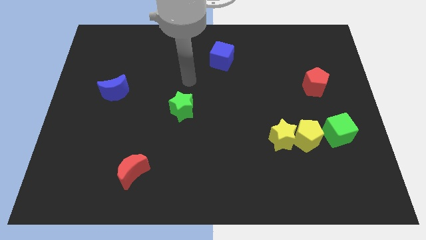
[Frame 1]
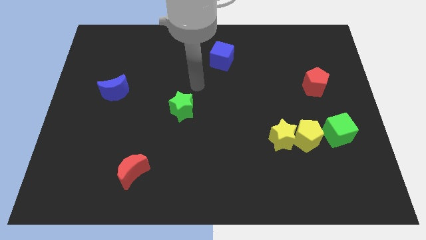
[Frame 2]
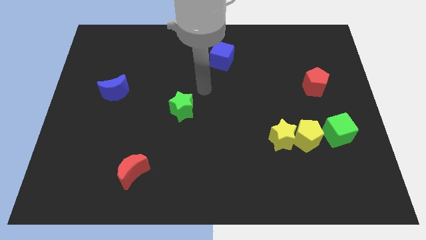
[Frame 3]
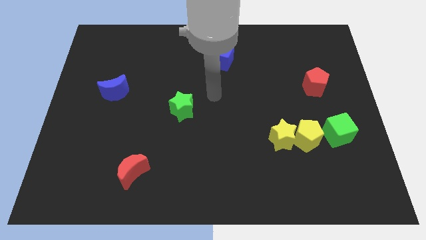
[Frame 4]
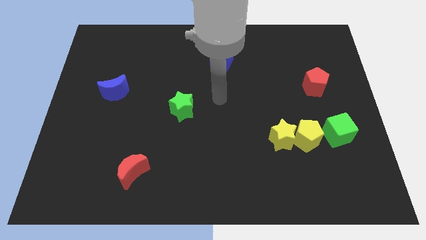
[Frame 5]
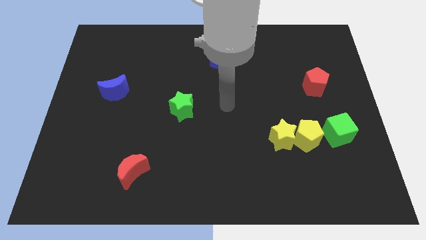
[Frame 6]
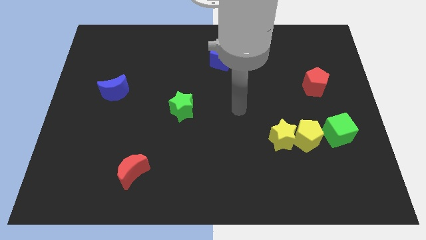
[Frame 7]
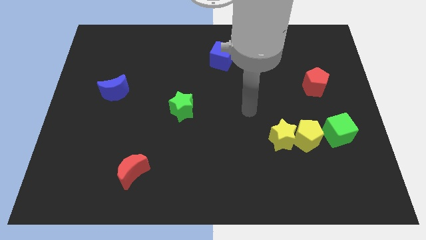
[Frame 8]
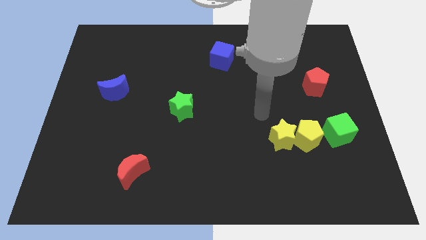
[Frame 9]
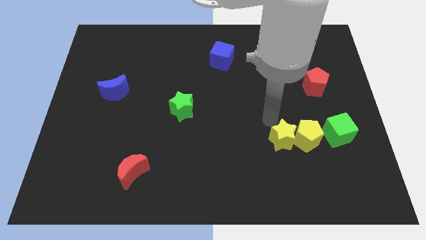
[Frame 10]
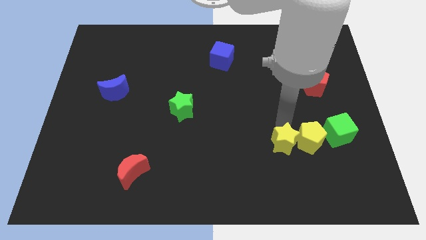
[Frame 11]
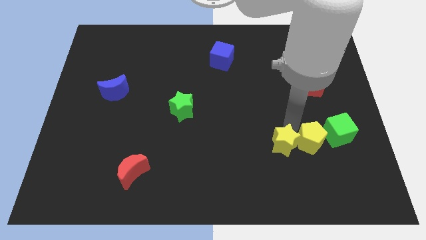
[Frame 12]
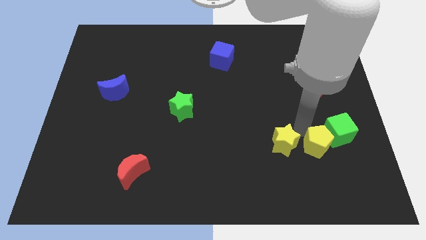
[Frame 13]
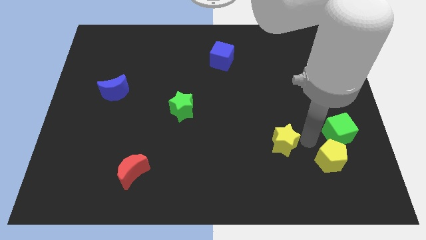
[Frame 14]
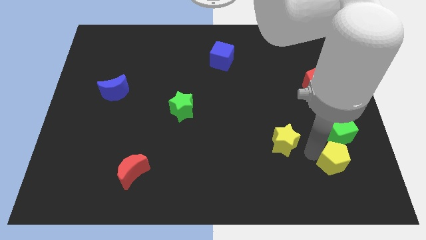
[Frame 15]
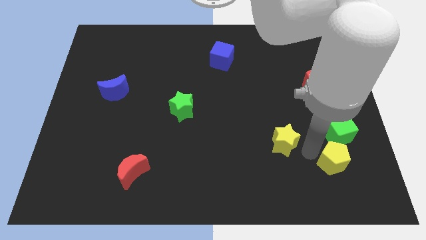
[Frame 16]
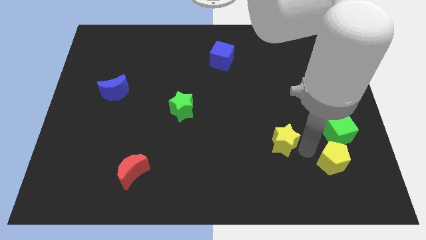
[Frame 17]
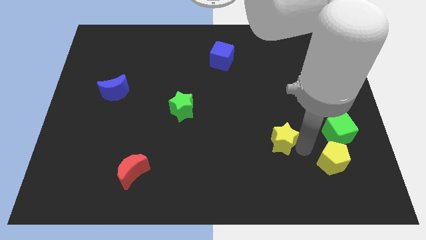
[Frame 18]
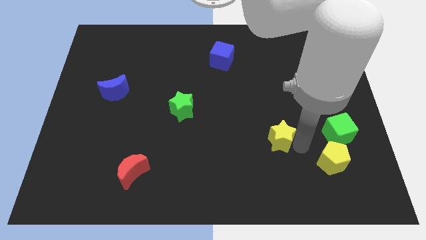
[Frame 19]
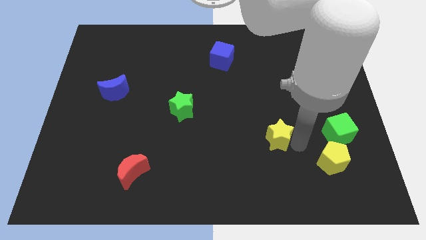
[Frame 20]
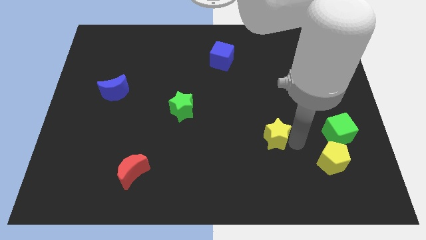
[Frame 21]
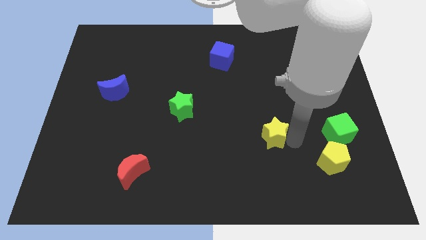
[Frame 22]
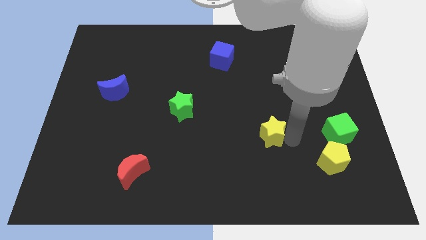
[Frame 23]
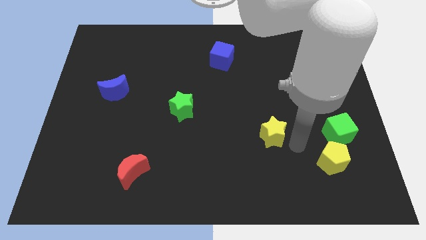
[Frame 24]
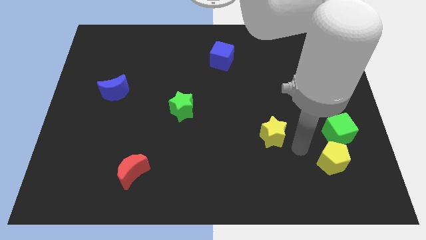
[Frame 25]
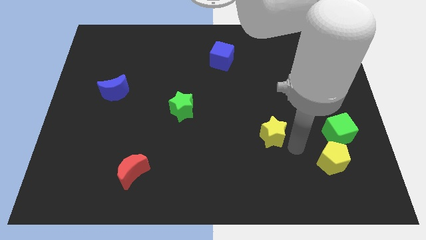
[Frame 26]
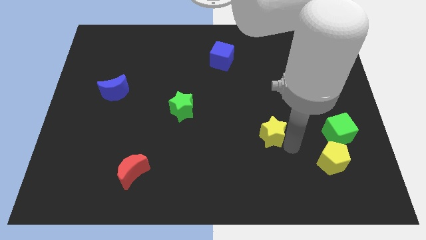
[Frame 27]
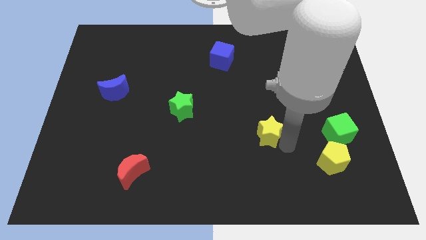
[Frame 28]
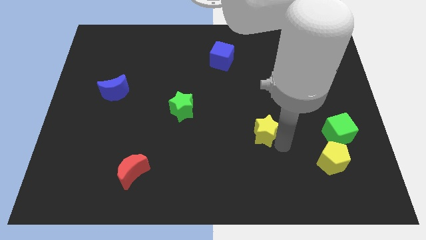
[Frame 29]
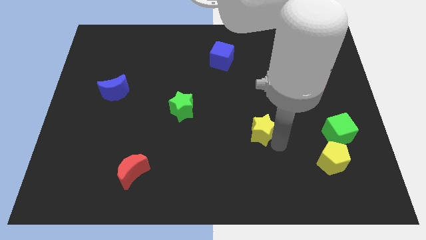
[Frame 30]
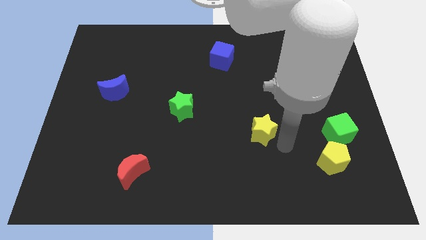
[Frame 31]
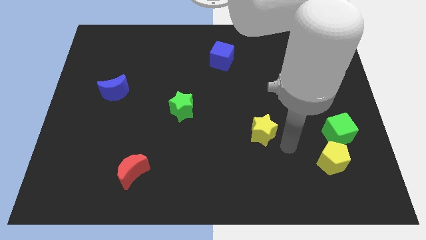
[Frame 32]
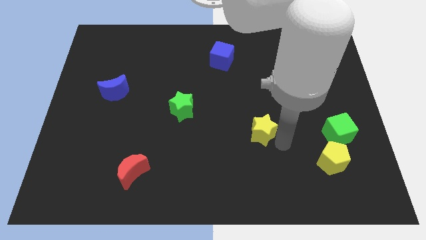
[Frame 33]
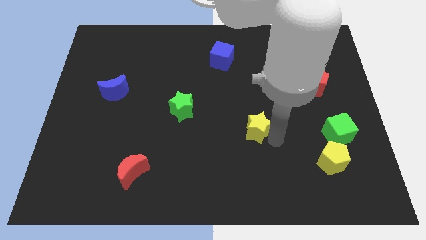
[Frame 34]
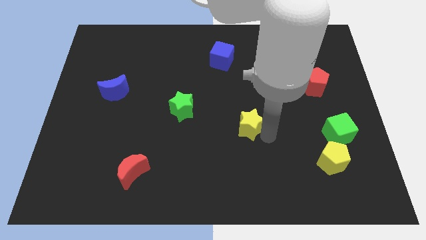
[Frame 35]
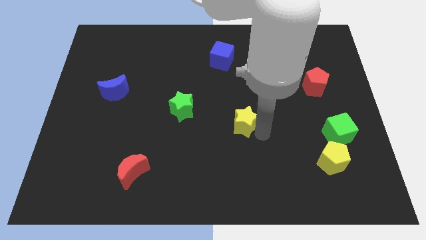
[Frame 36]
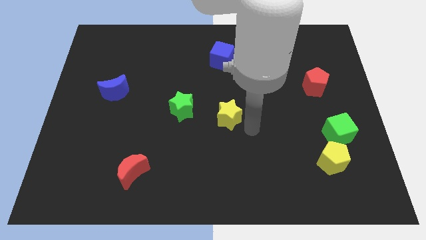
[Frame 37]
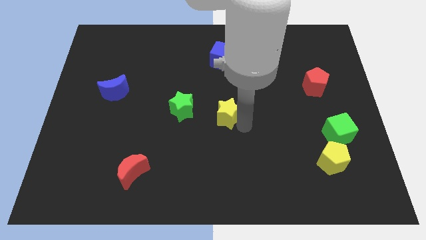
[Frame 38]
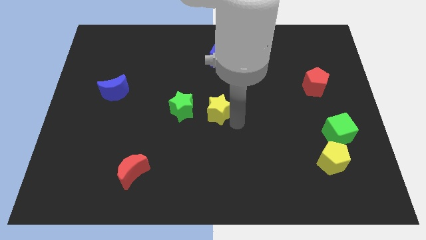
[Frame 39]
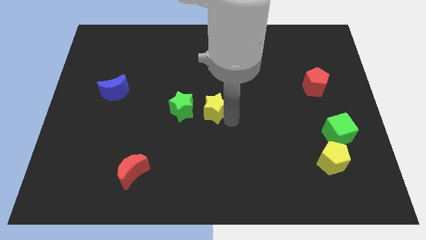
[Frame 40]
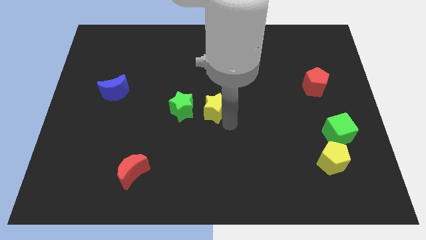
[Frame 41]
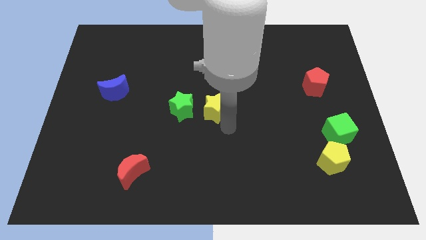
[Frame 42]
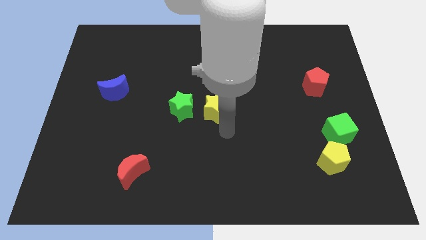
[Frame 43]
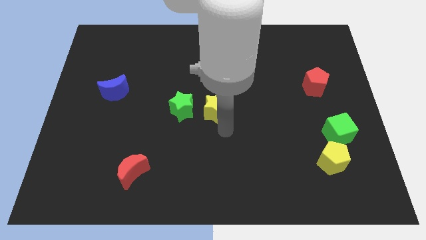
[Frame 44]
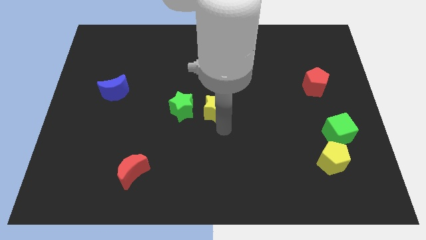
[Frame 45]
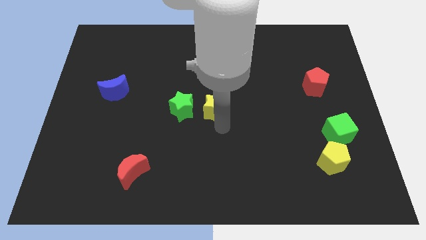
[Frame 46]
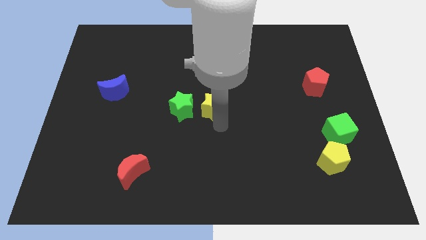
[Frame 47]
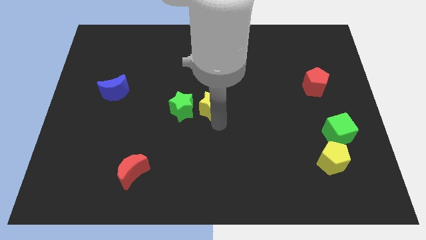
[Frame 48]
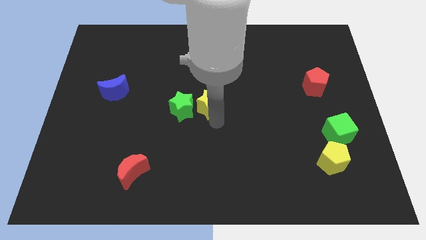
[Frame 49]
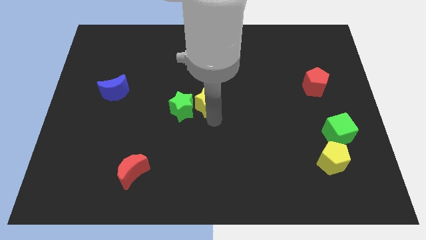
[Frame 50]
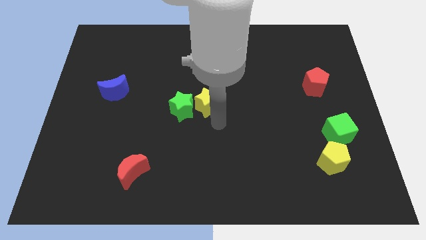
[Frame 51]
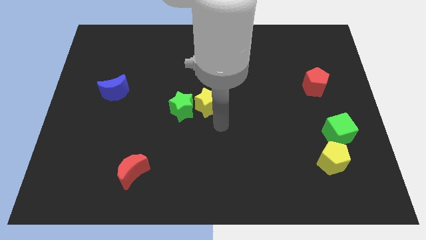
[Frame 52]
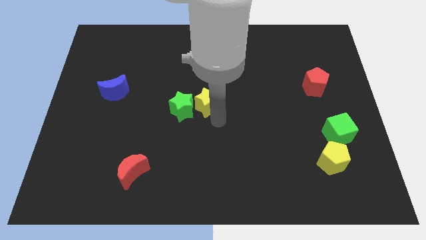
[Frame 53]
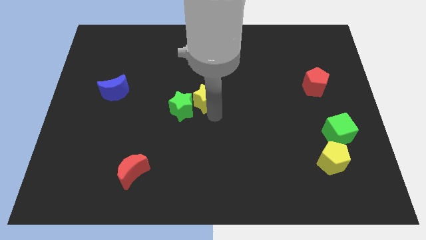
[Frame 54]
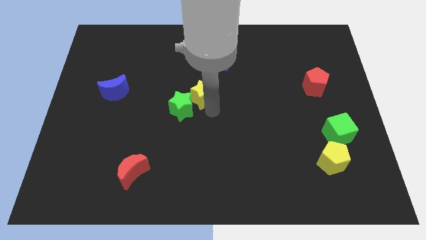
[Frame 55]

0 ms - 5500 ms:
move the yellow star up and left

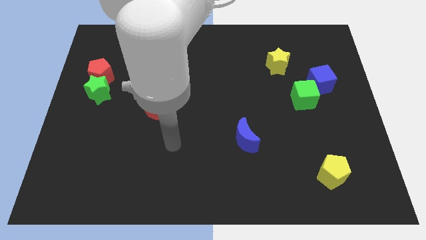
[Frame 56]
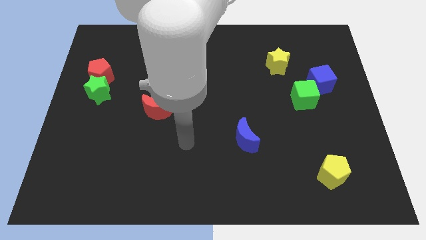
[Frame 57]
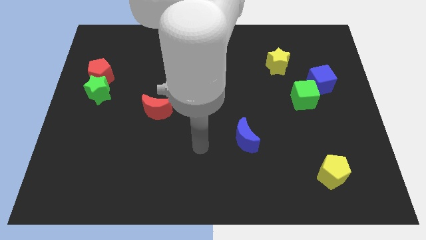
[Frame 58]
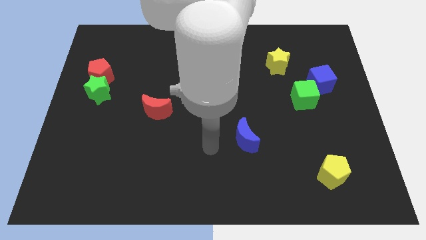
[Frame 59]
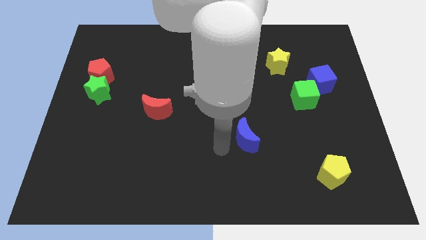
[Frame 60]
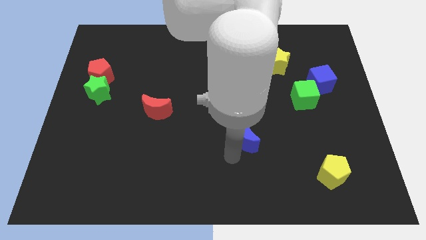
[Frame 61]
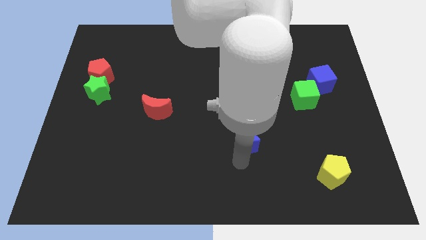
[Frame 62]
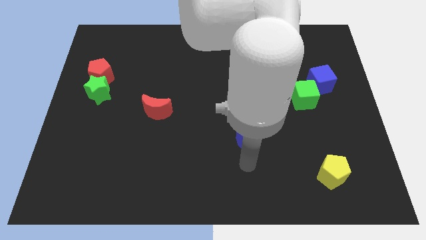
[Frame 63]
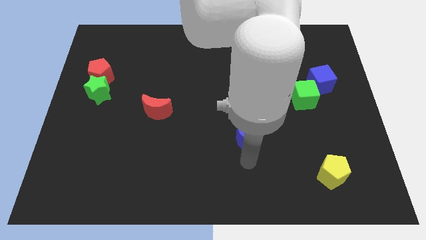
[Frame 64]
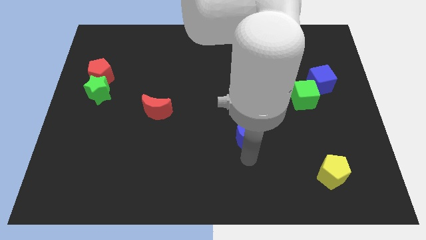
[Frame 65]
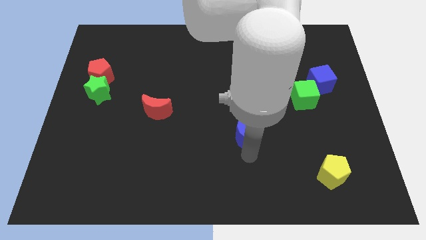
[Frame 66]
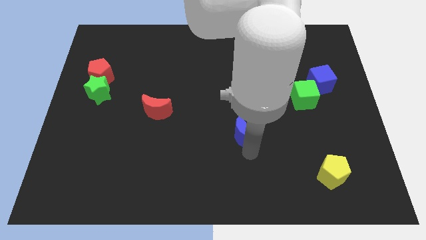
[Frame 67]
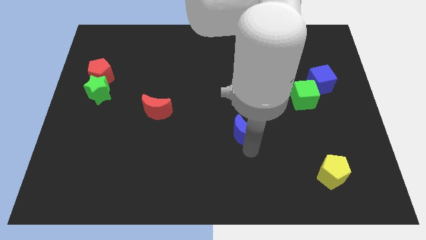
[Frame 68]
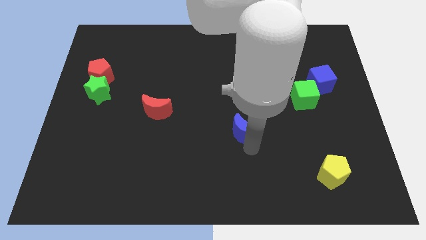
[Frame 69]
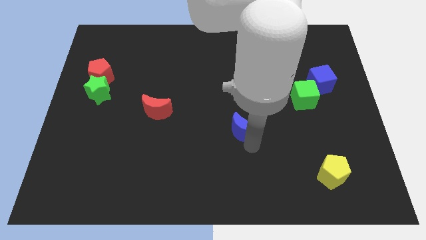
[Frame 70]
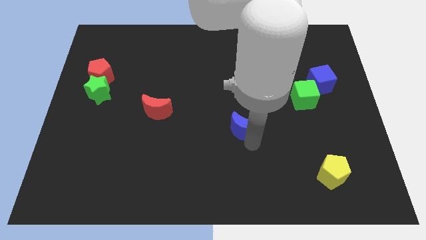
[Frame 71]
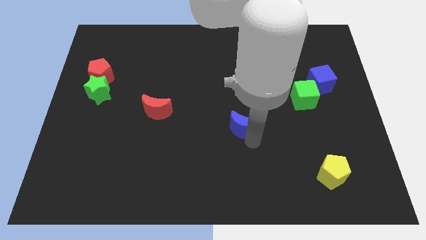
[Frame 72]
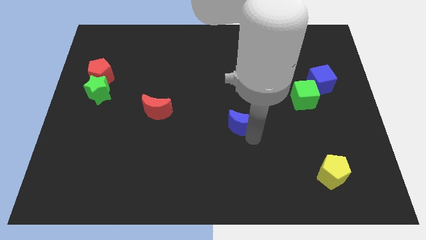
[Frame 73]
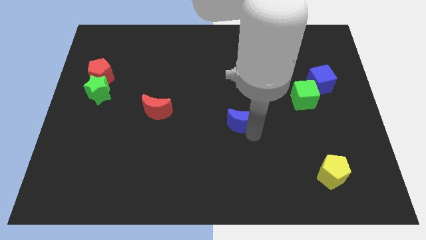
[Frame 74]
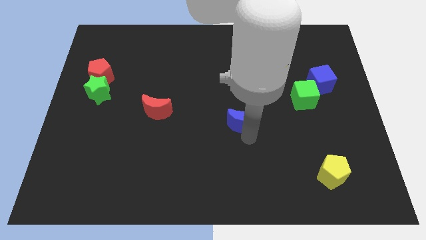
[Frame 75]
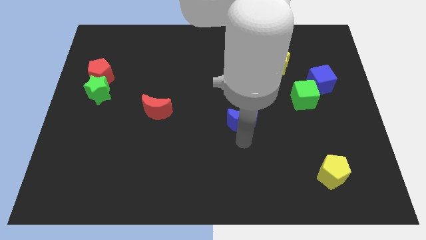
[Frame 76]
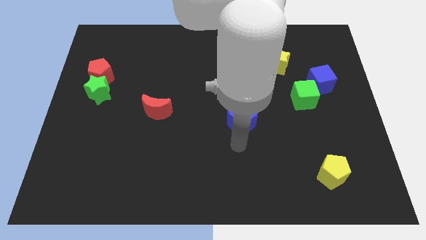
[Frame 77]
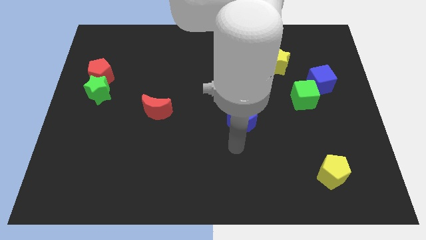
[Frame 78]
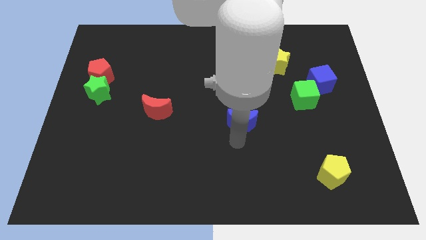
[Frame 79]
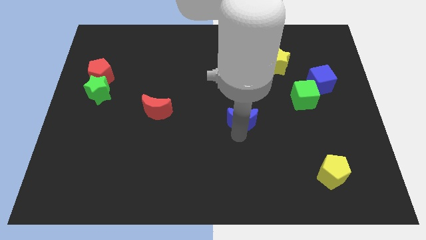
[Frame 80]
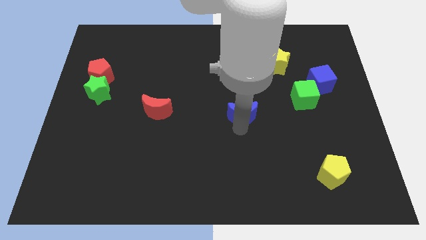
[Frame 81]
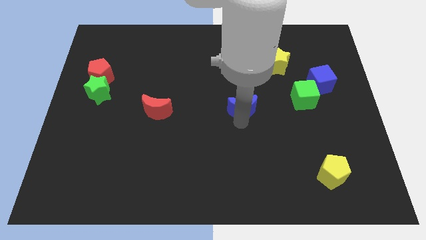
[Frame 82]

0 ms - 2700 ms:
move the blue moon a little upwards
